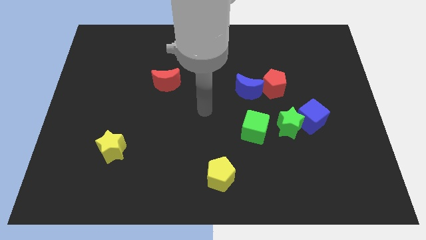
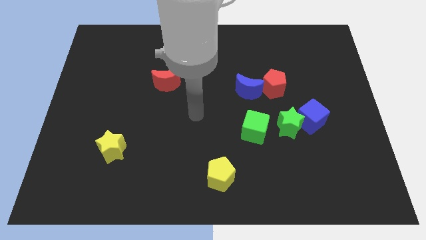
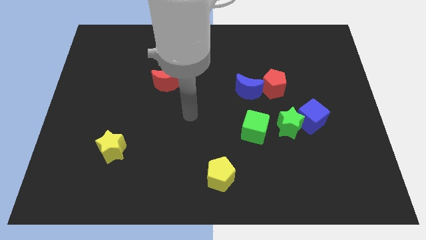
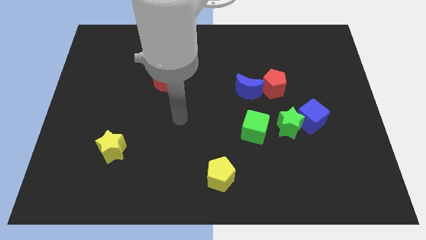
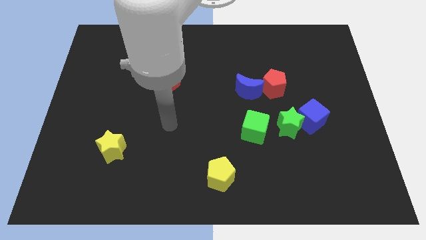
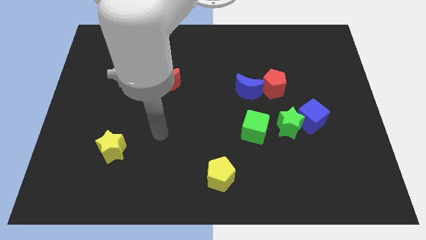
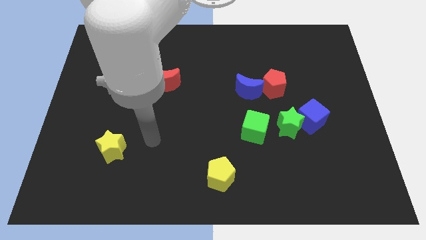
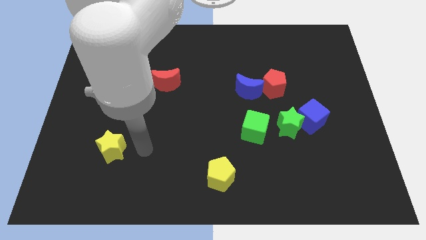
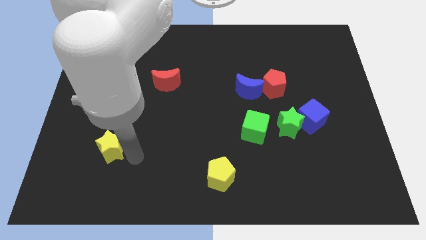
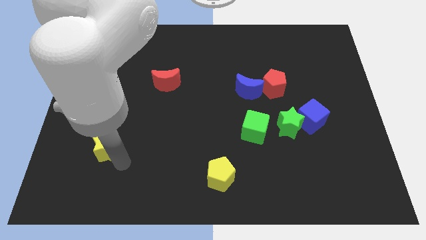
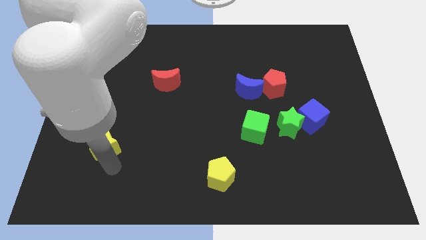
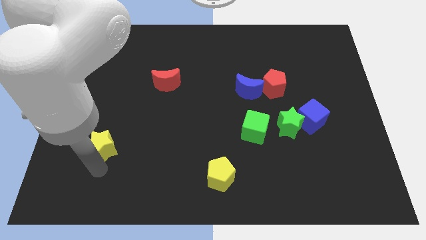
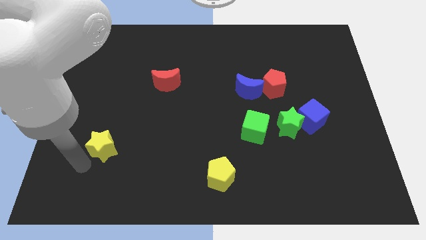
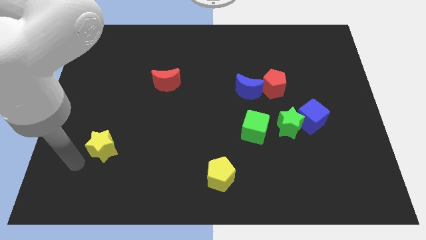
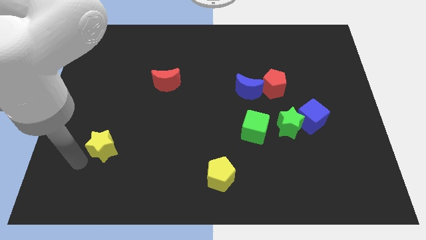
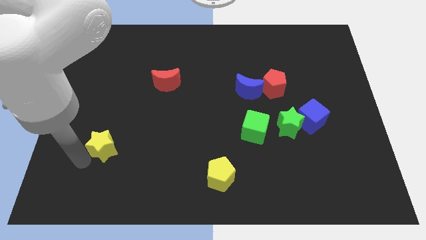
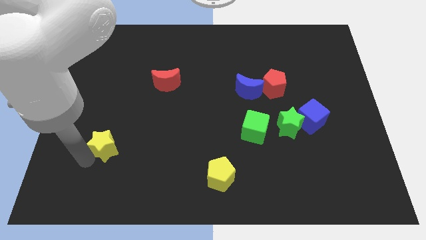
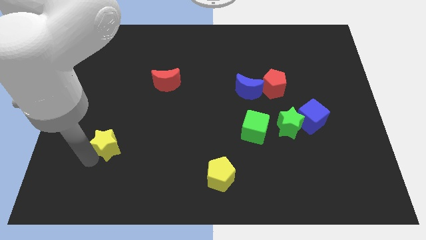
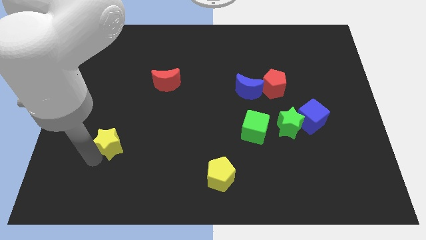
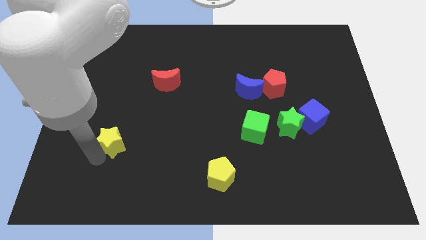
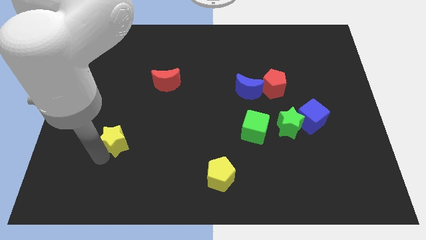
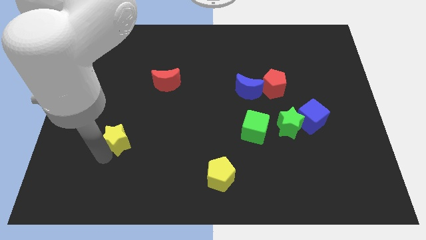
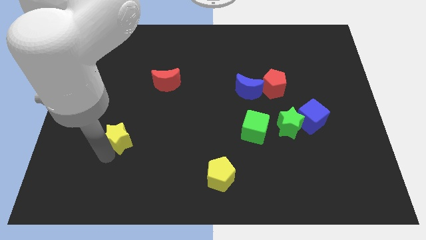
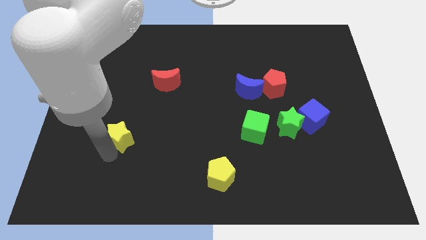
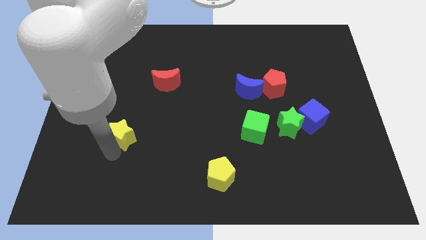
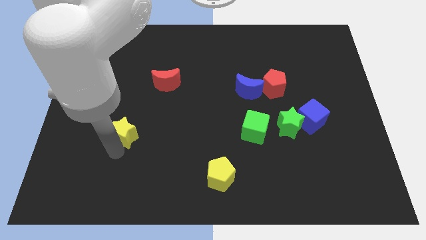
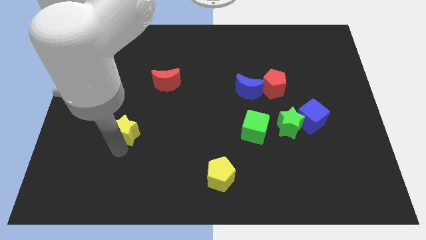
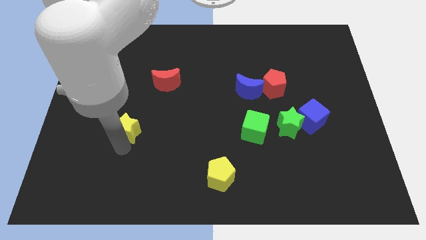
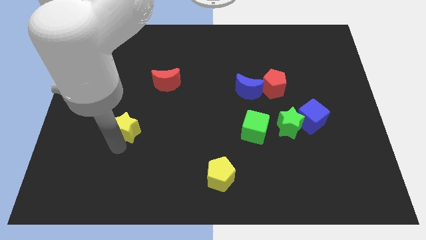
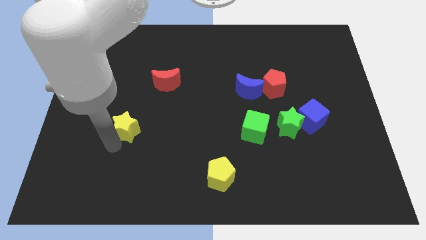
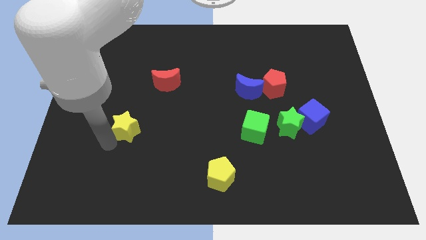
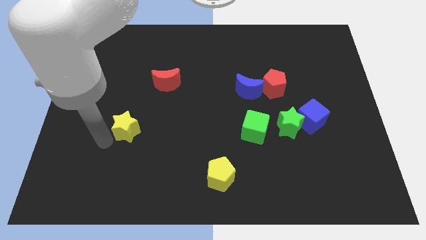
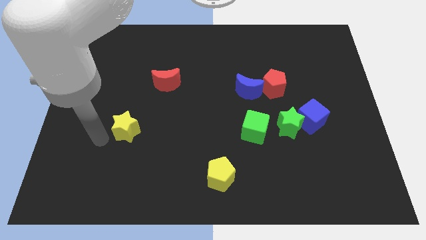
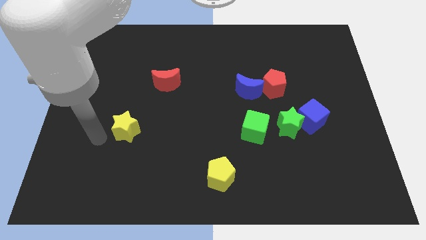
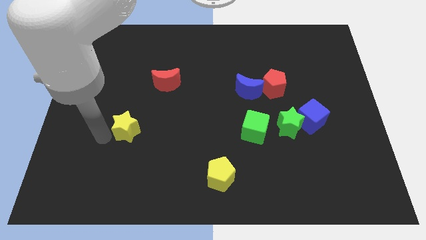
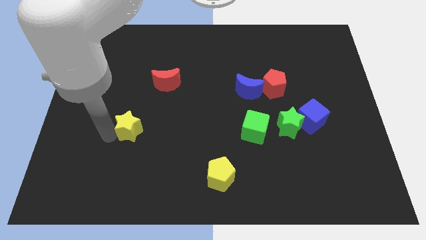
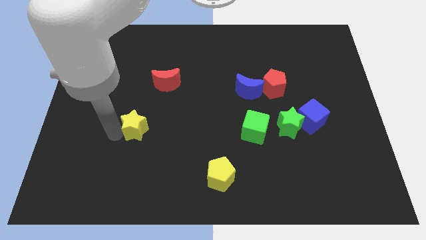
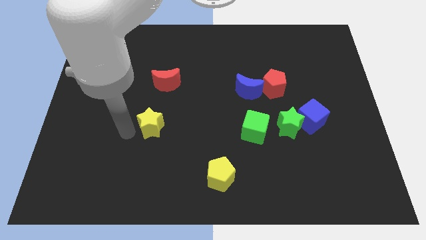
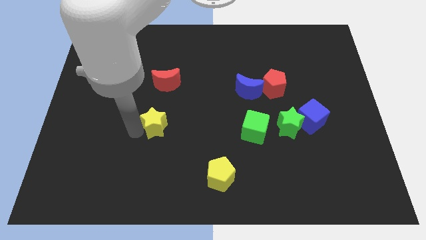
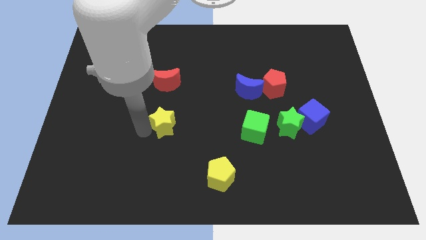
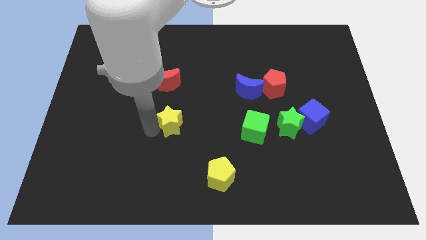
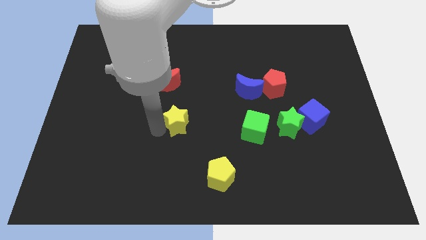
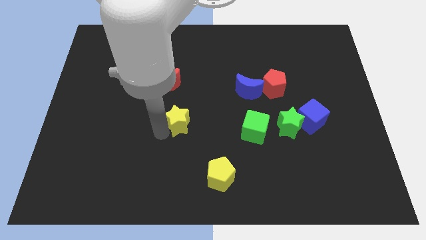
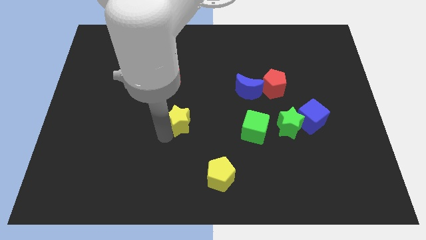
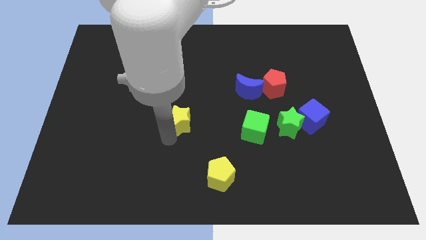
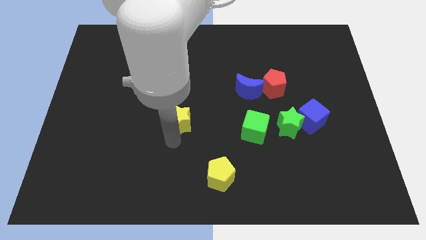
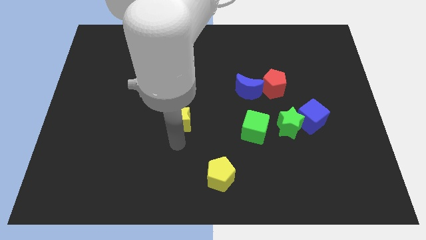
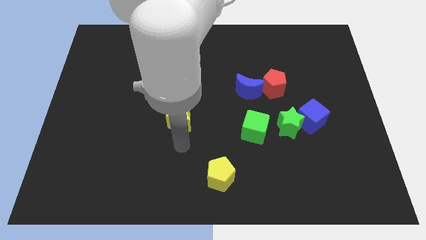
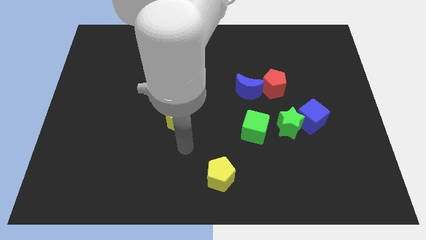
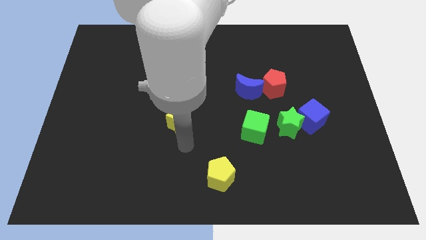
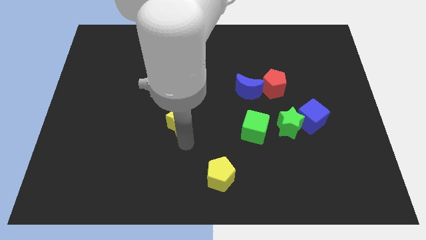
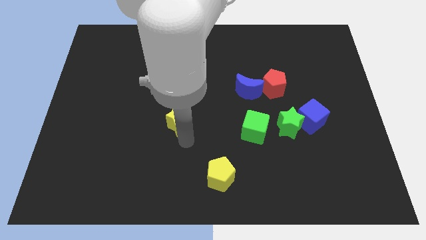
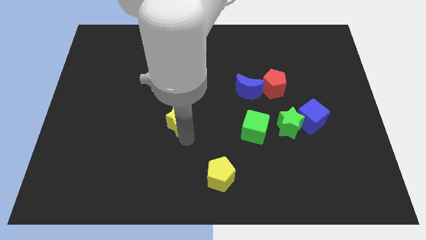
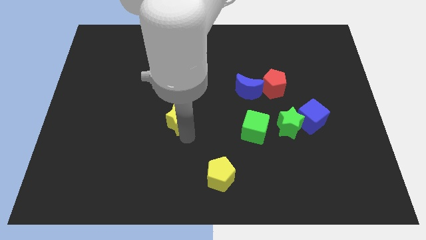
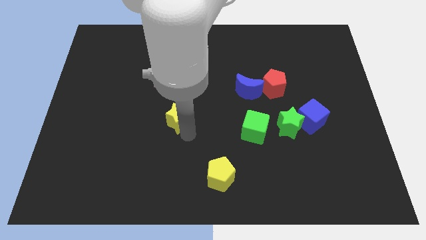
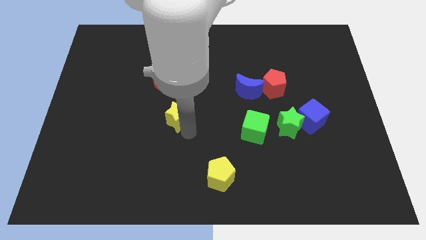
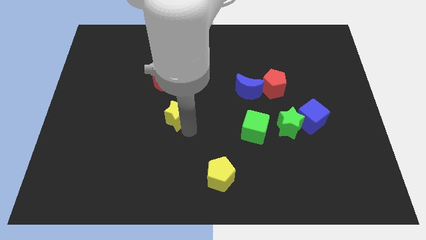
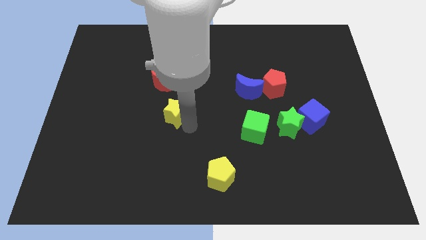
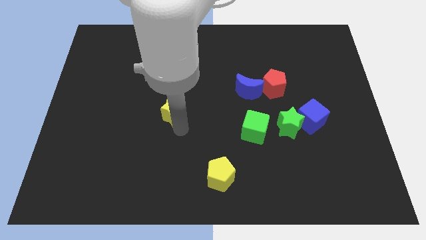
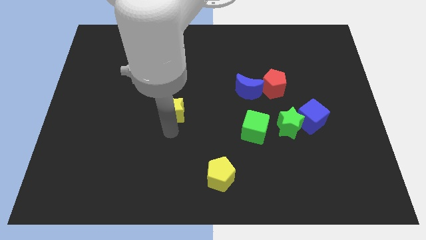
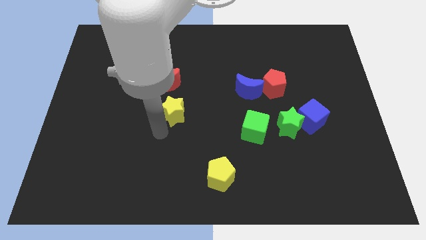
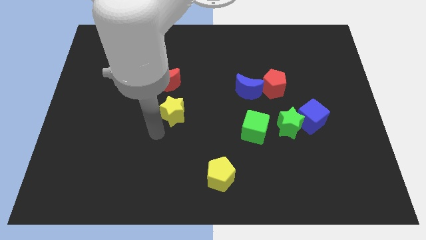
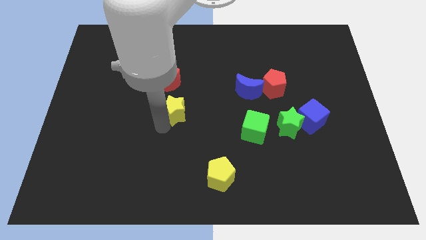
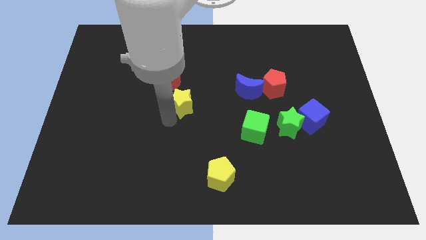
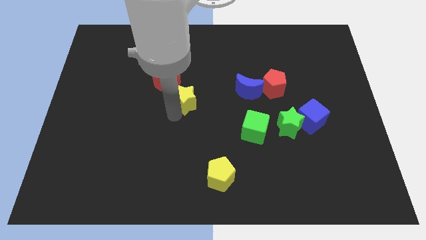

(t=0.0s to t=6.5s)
slide the yellow star up and right diagonally

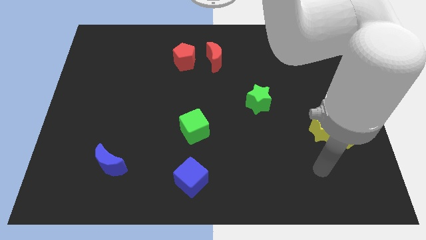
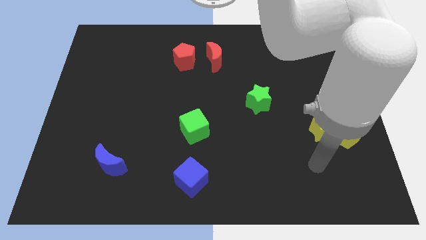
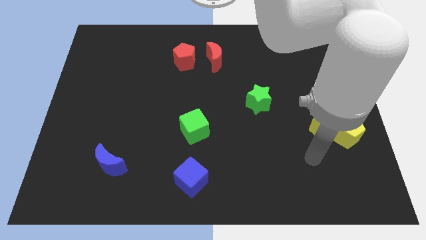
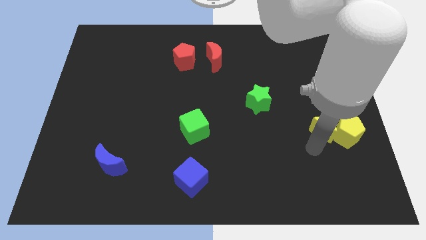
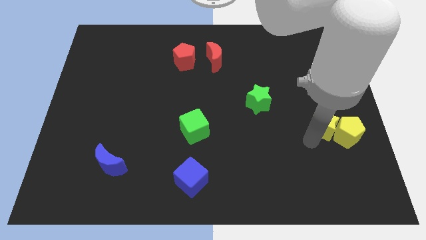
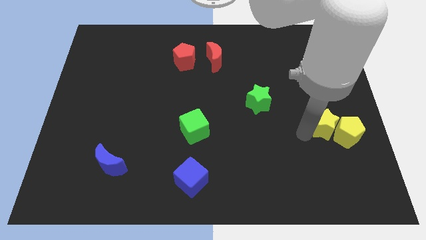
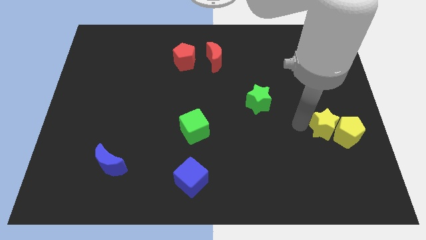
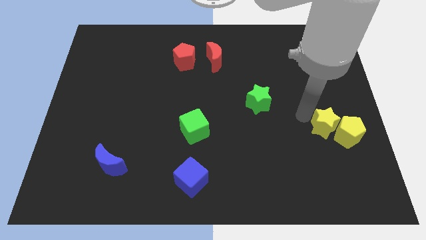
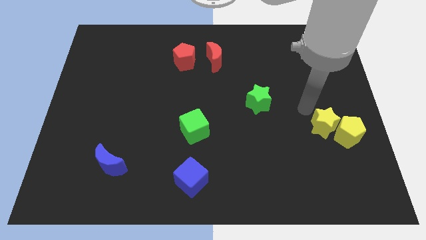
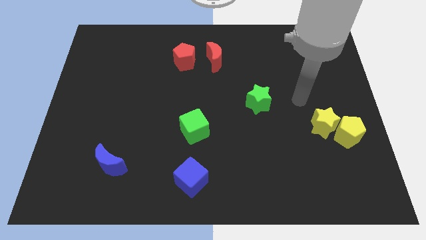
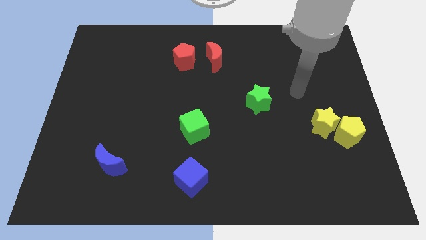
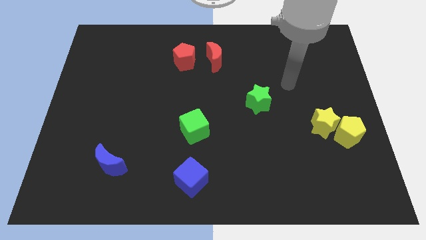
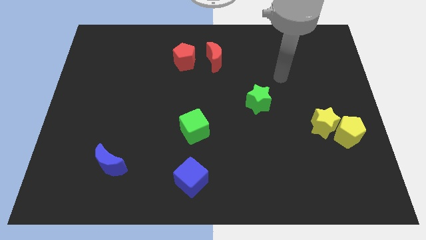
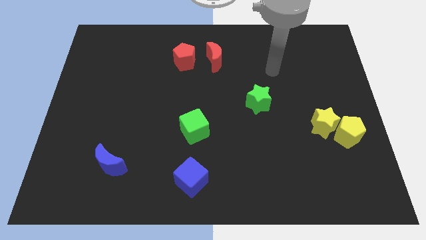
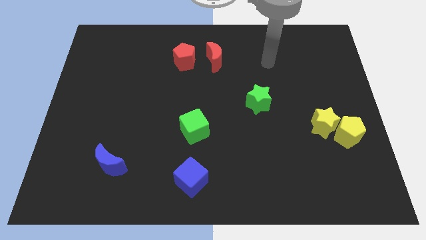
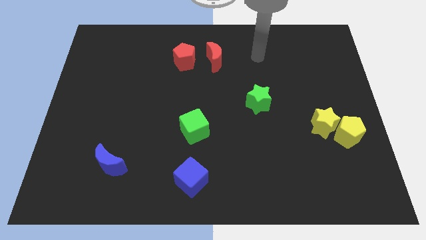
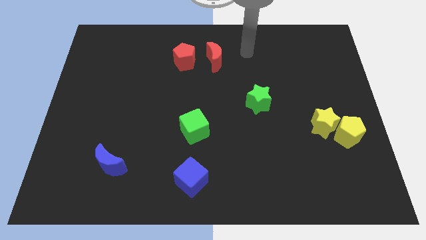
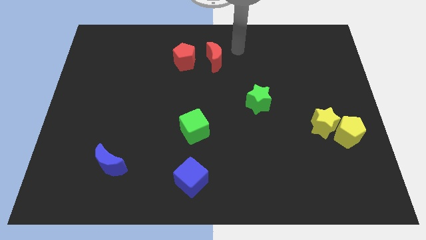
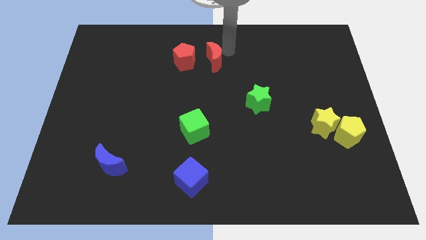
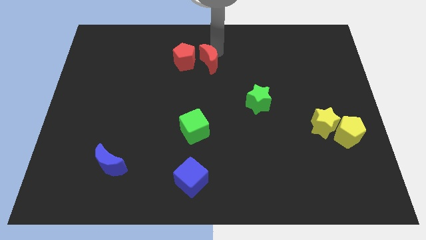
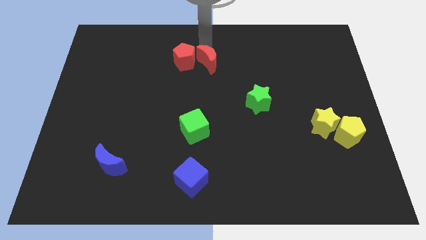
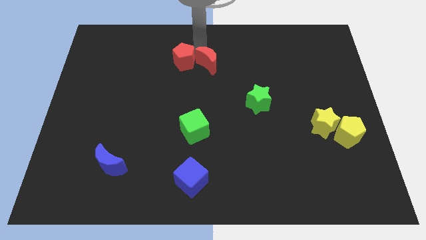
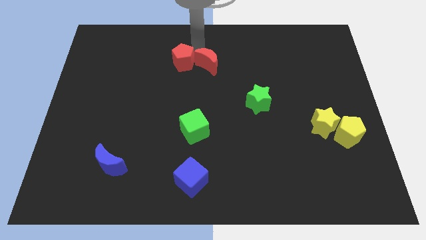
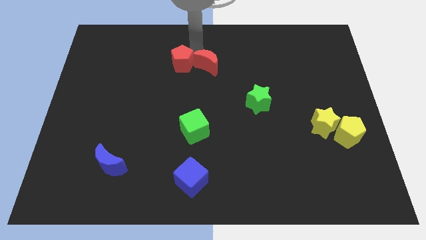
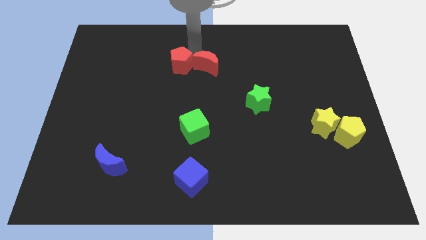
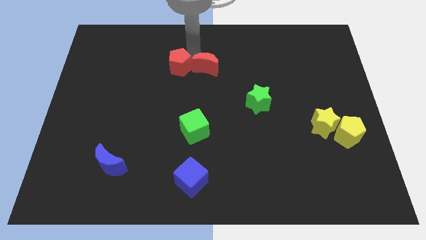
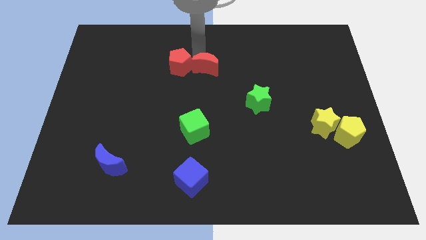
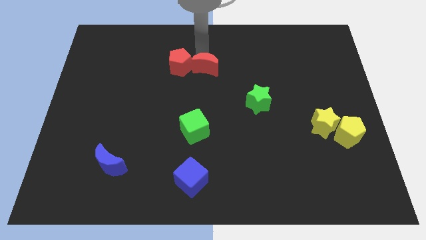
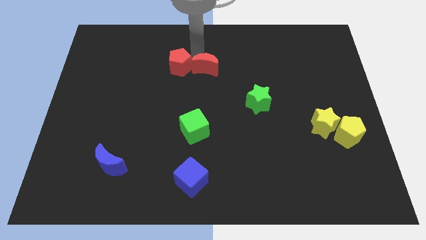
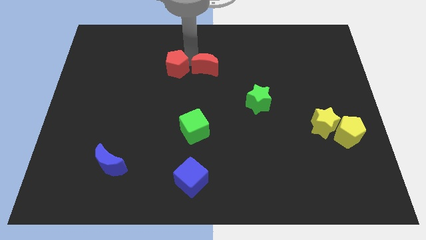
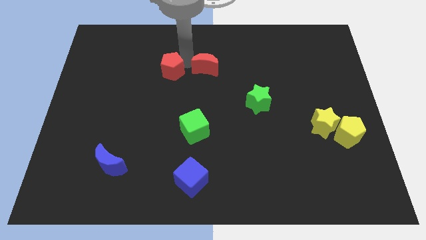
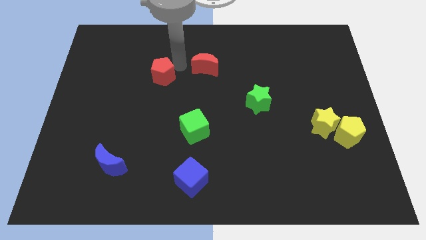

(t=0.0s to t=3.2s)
move the red pentagon a little bit diagonally downwards and left
